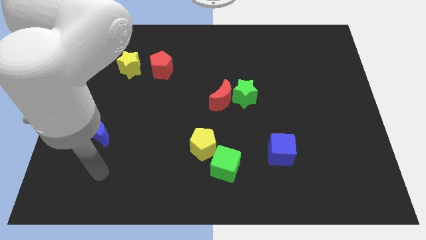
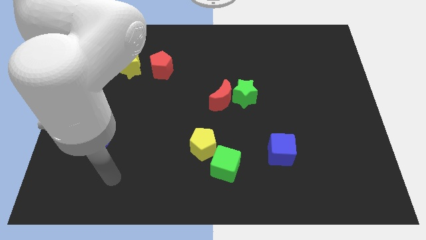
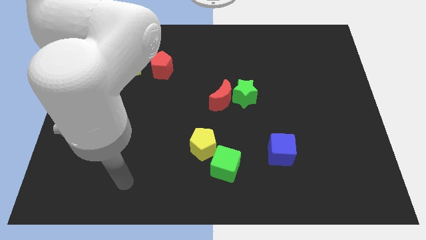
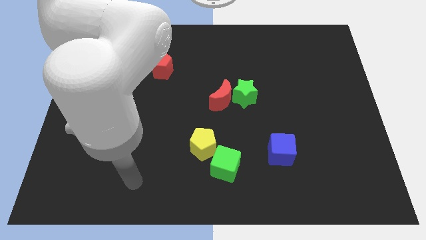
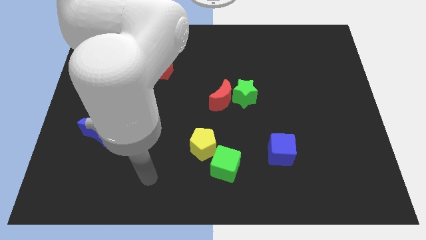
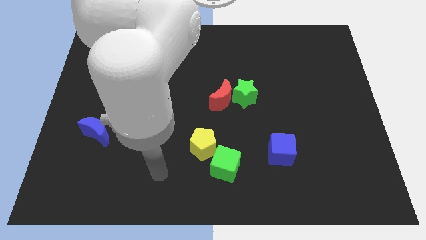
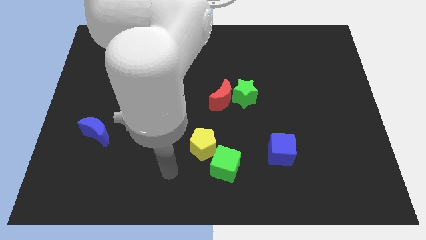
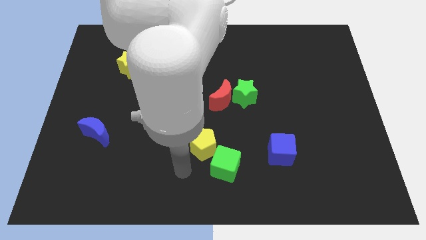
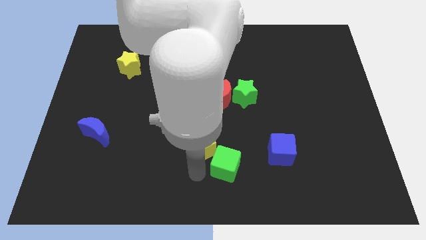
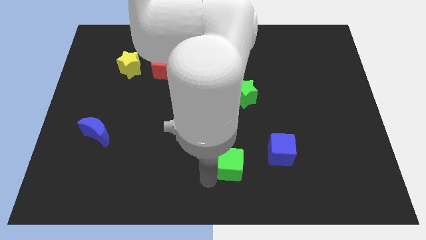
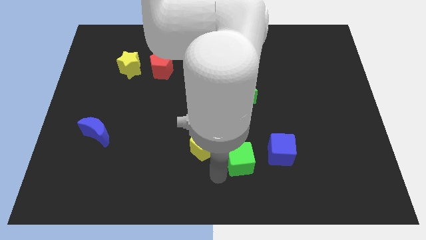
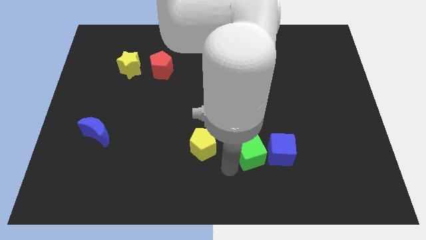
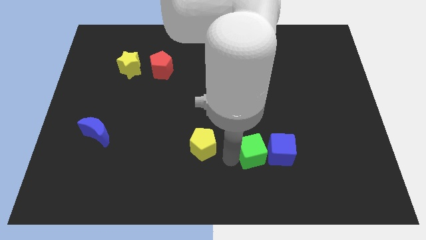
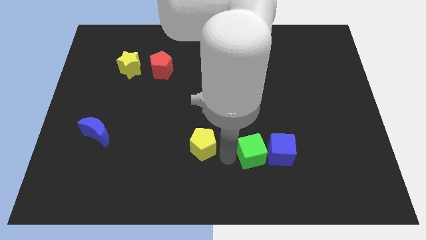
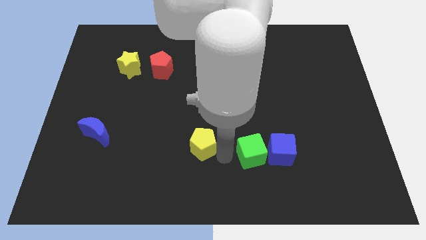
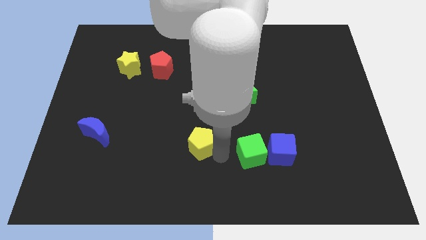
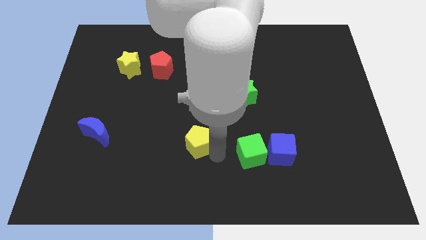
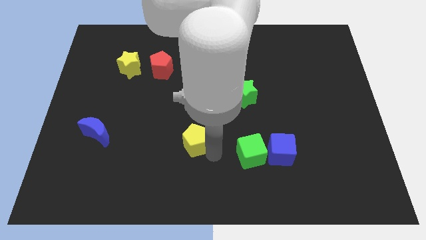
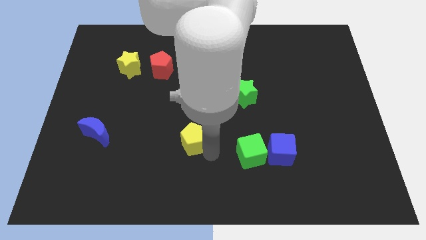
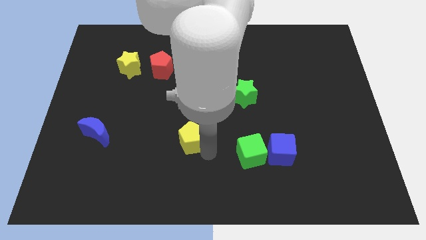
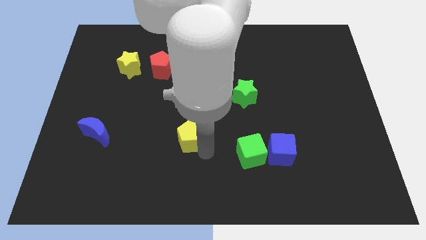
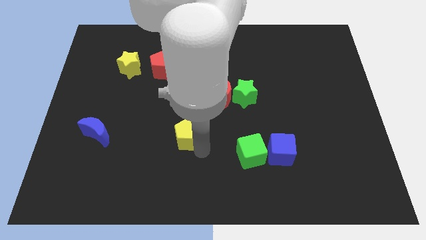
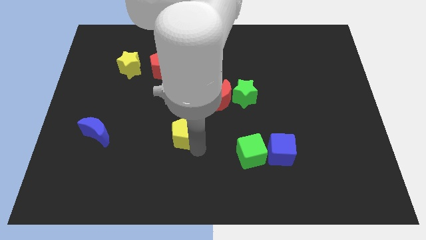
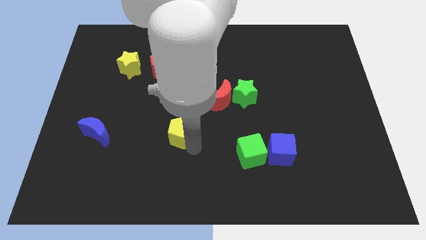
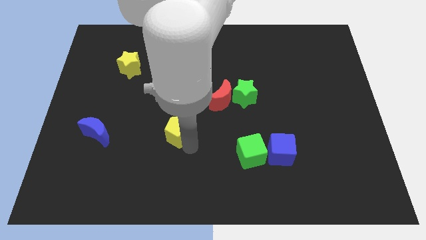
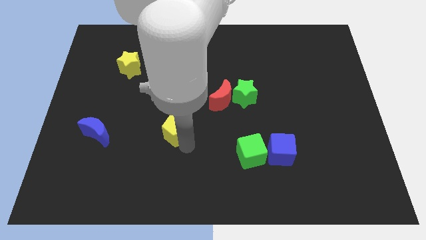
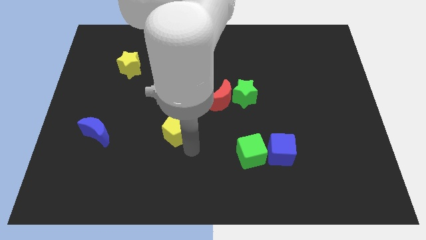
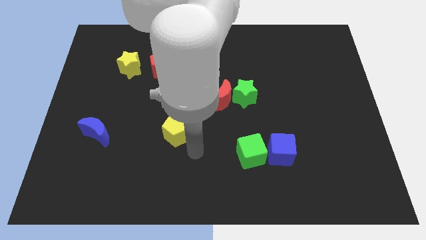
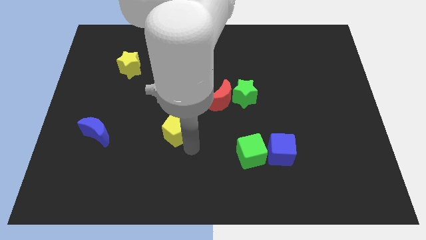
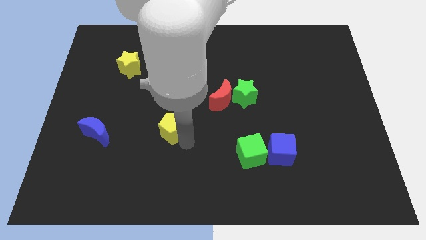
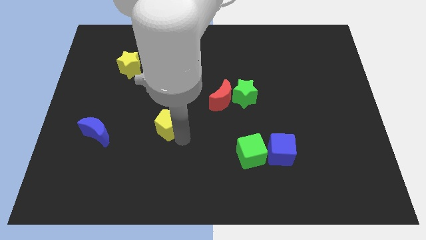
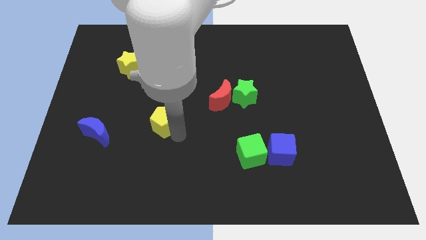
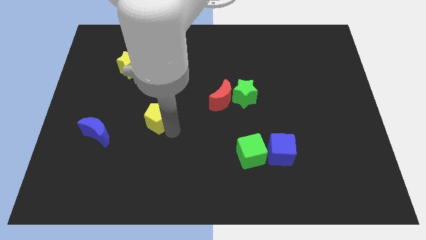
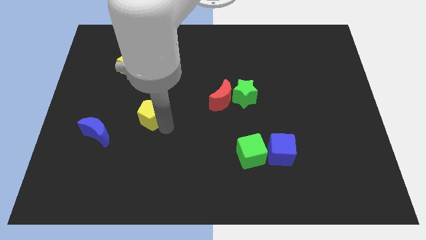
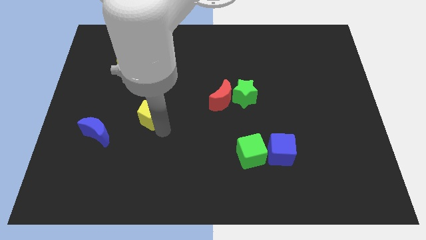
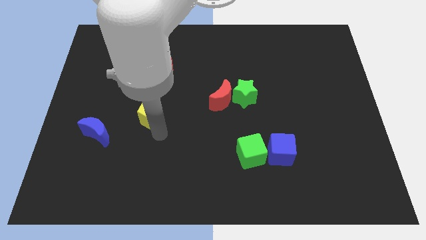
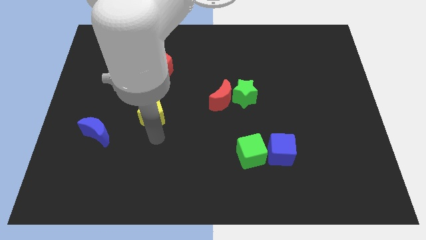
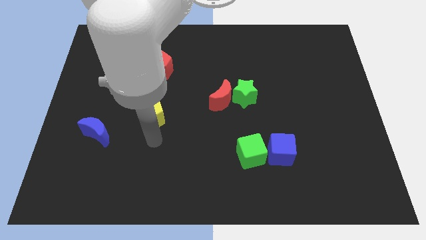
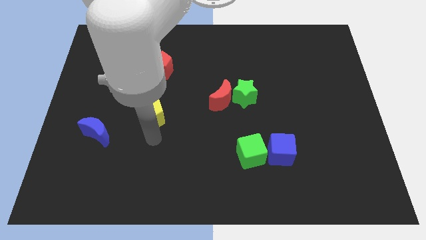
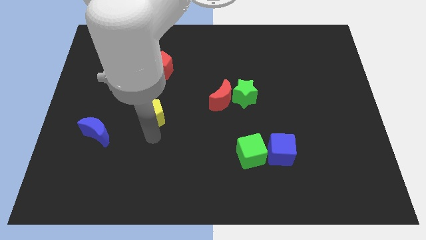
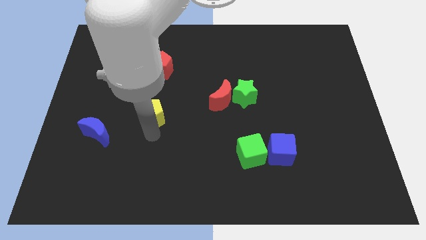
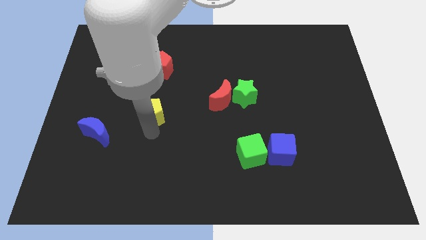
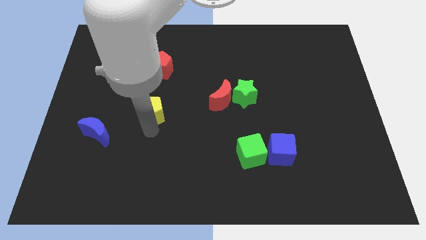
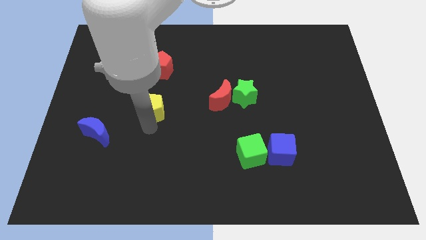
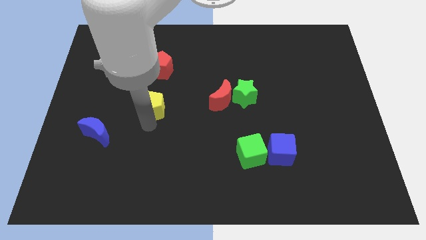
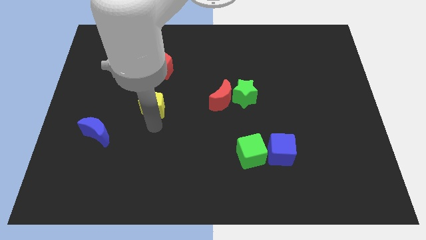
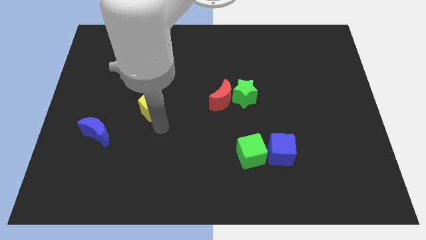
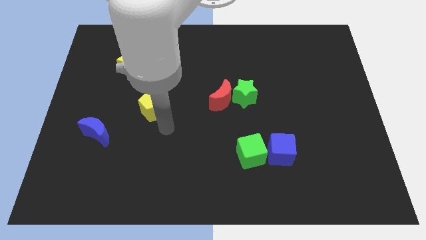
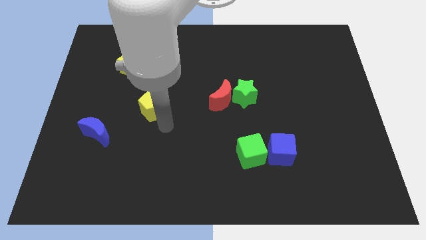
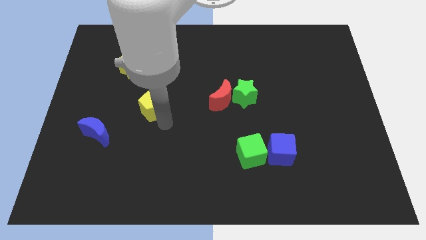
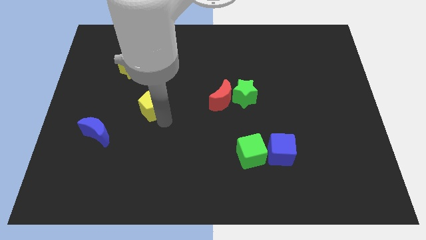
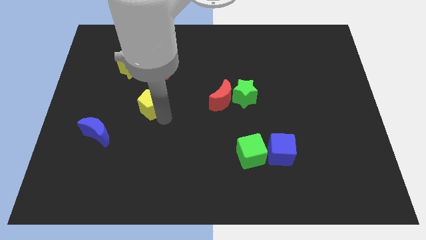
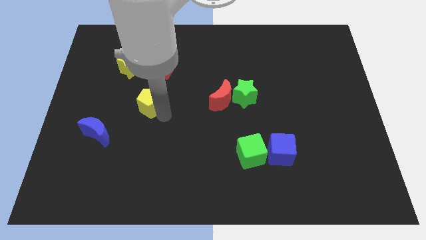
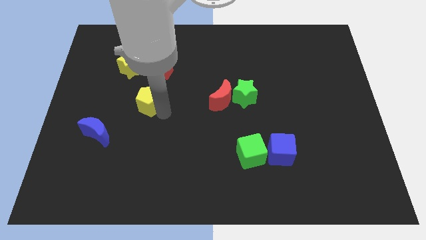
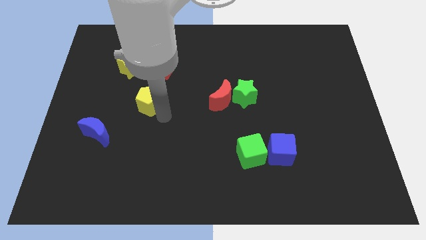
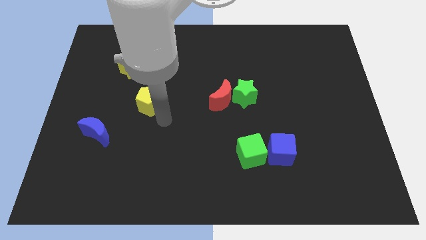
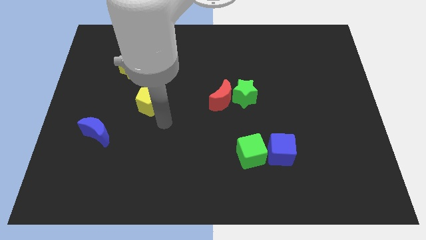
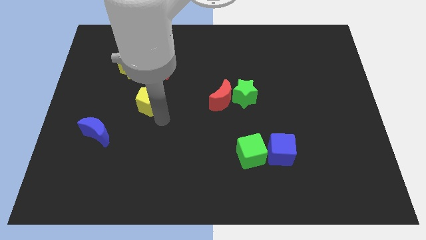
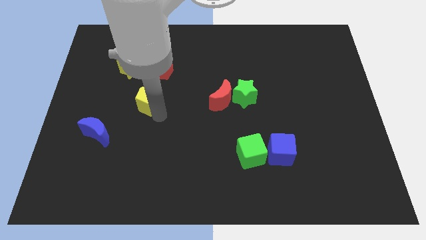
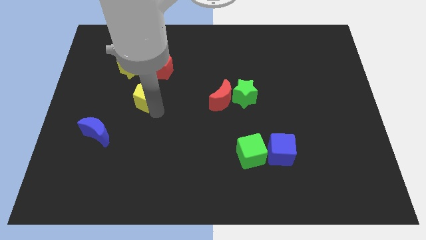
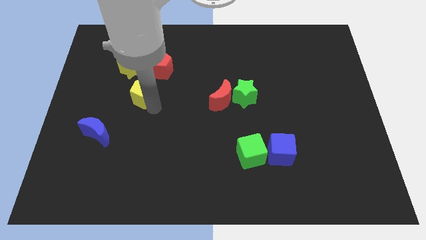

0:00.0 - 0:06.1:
push the yellow pentagon up and then to the left

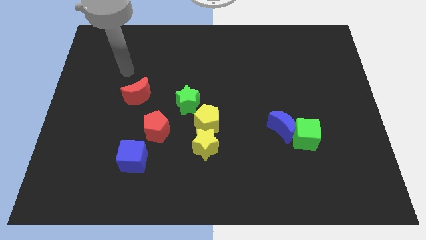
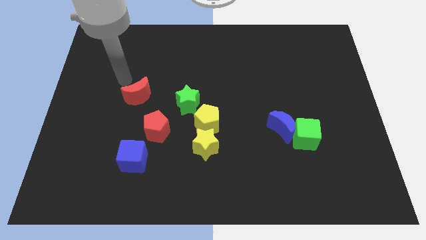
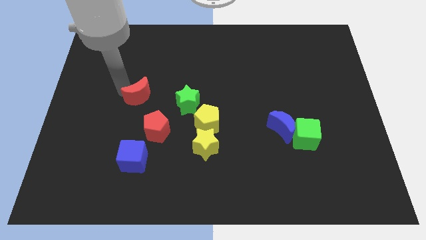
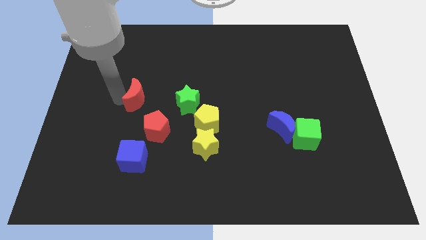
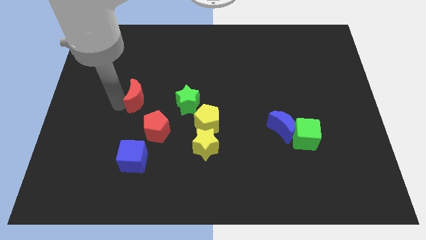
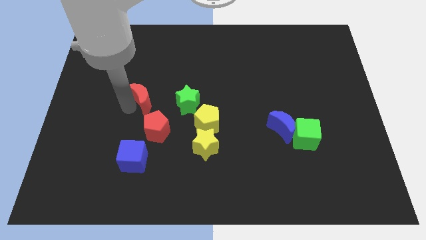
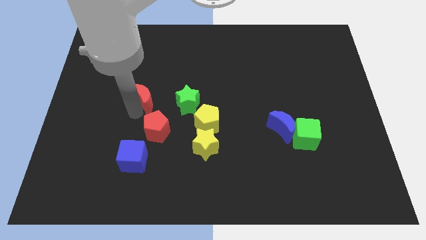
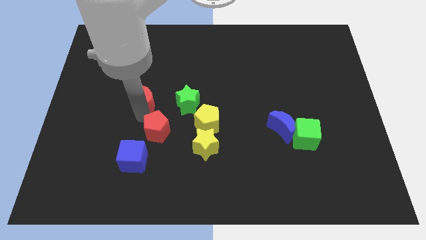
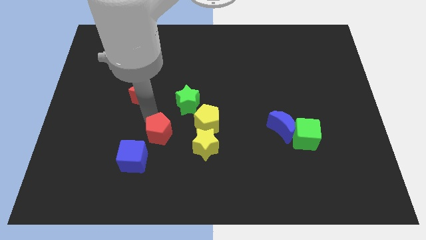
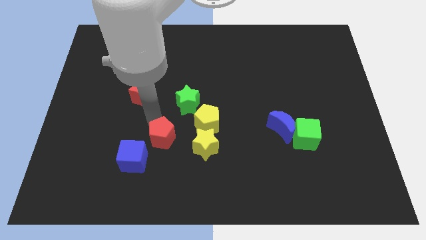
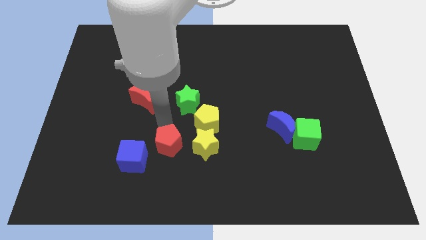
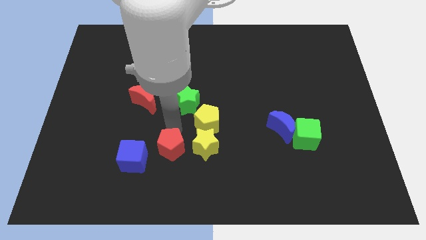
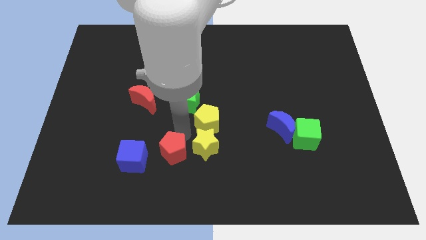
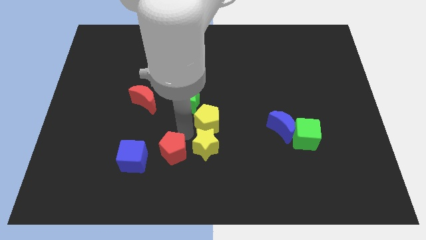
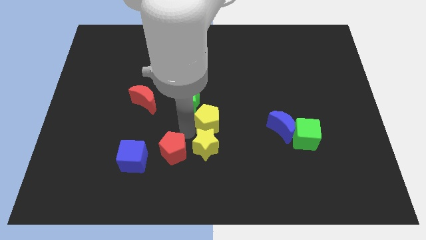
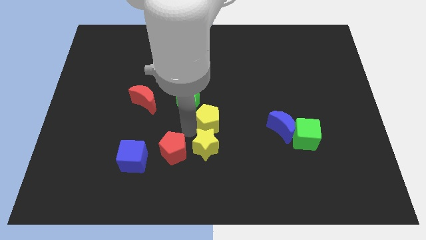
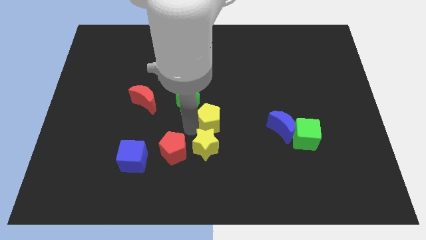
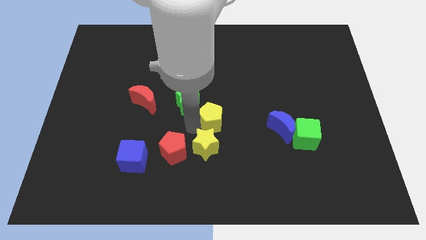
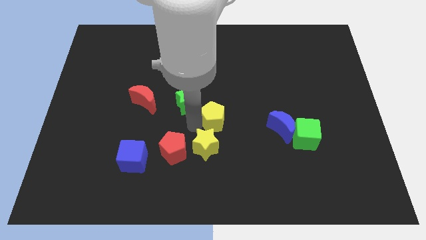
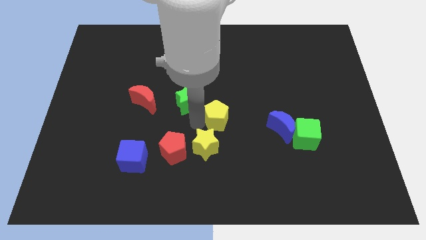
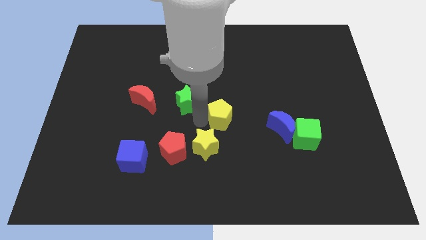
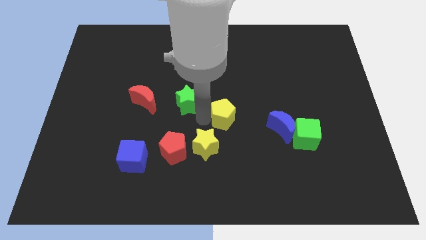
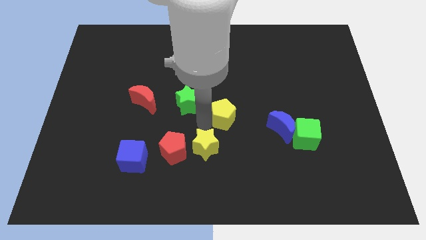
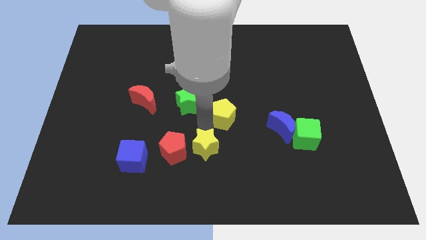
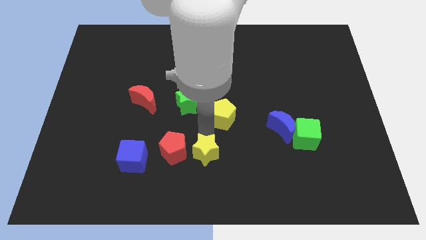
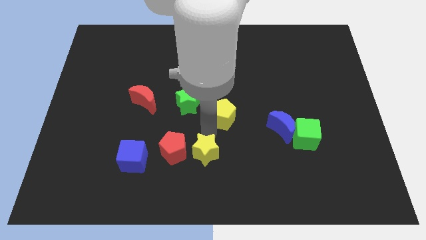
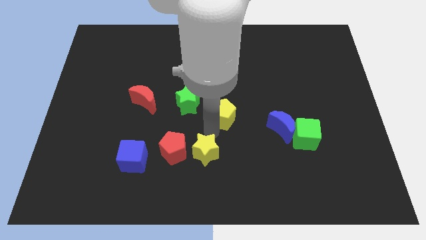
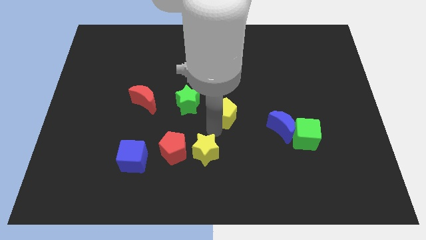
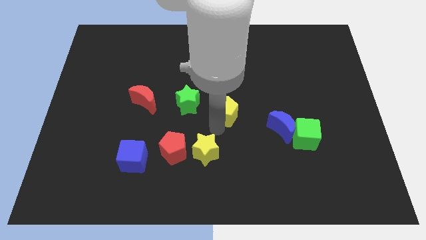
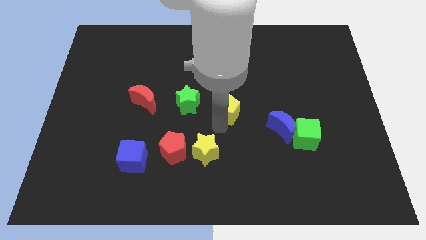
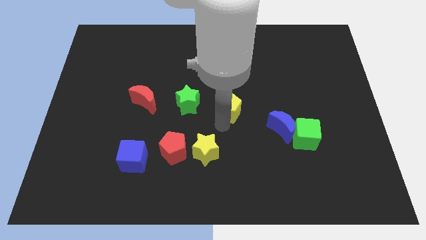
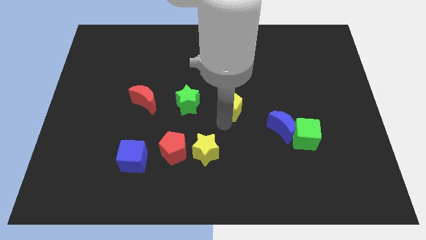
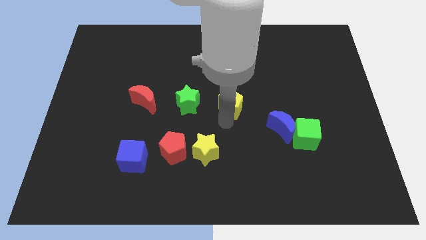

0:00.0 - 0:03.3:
slightly move the yellow pentagon upwards and right diagonally
